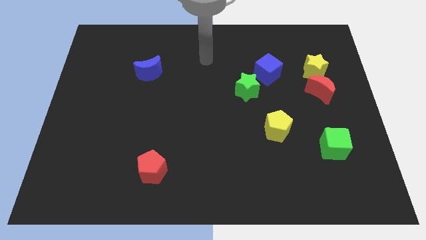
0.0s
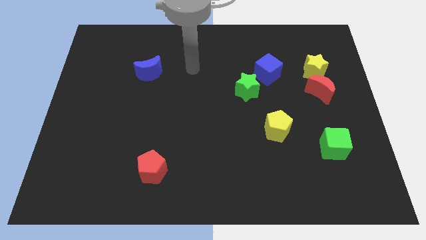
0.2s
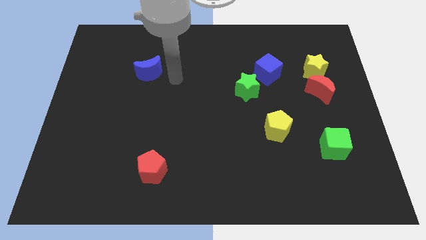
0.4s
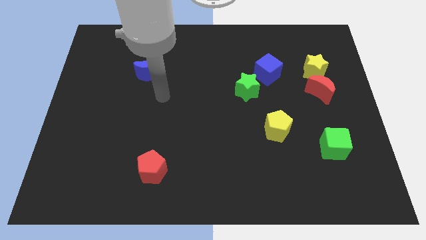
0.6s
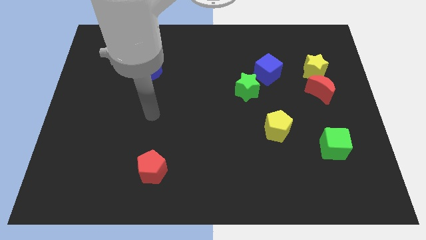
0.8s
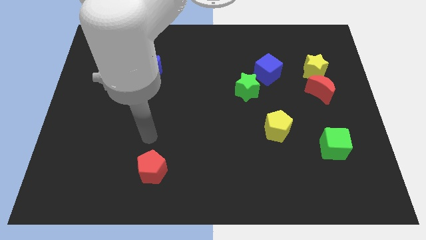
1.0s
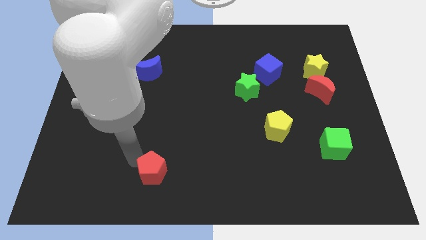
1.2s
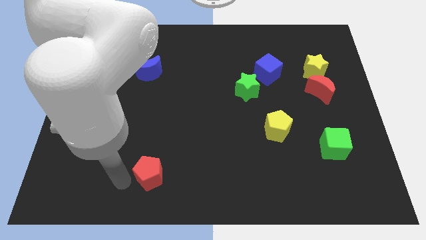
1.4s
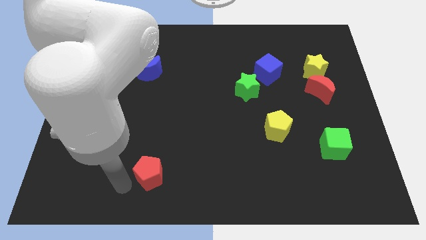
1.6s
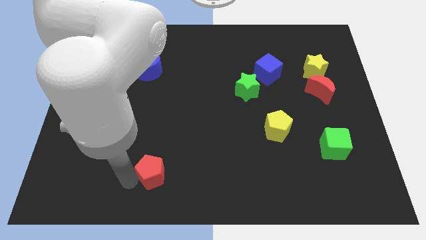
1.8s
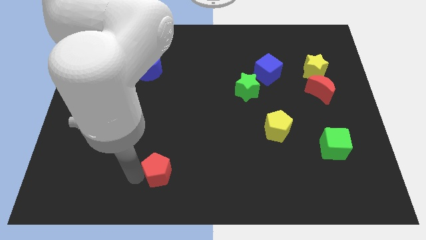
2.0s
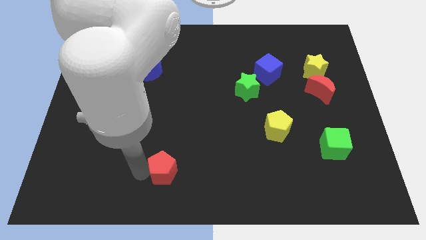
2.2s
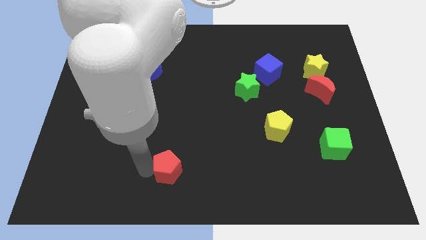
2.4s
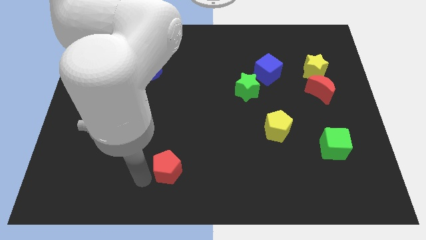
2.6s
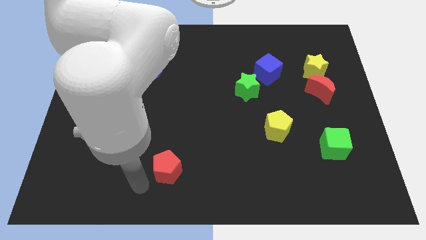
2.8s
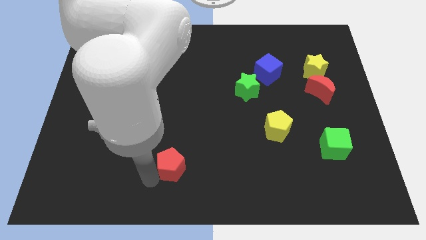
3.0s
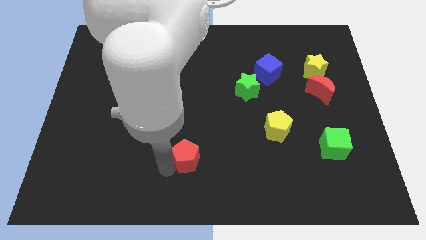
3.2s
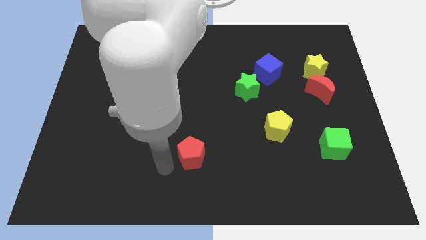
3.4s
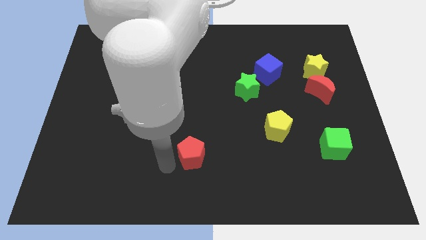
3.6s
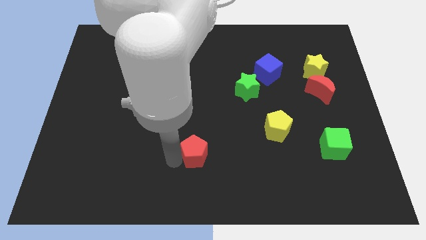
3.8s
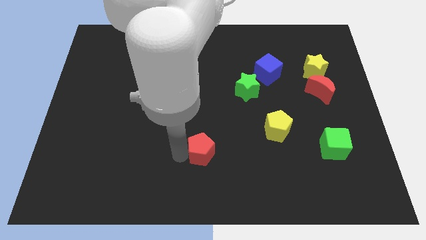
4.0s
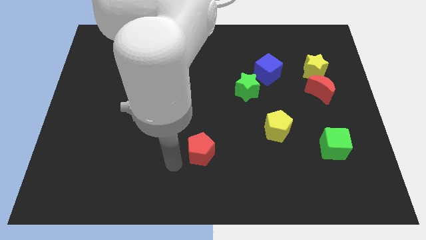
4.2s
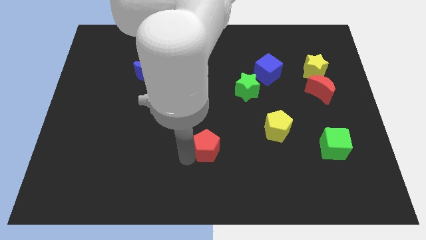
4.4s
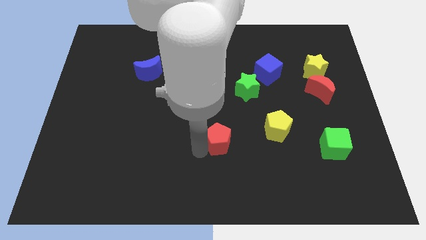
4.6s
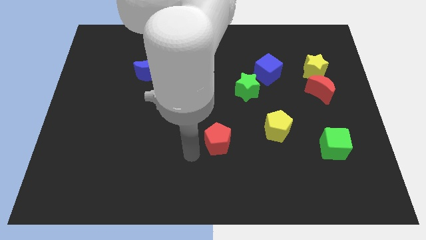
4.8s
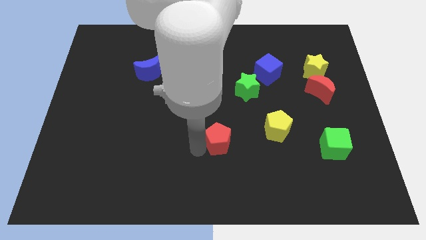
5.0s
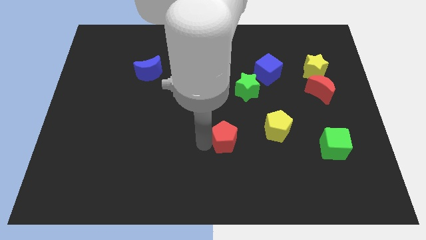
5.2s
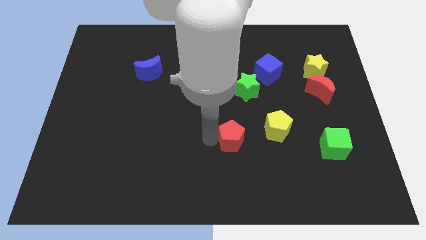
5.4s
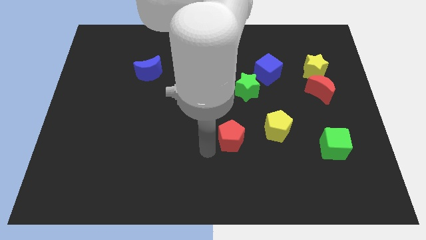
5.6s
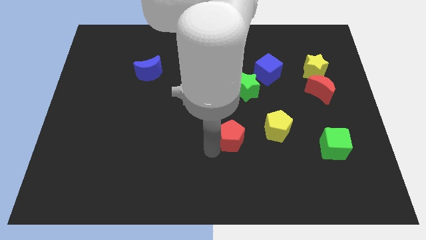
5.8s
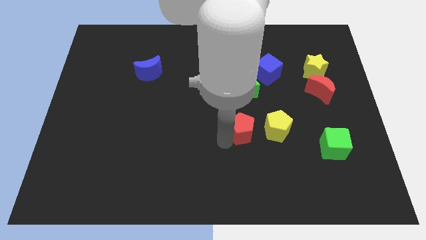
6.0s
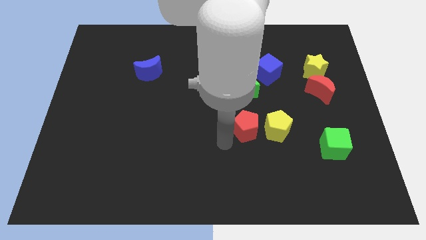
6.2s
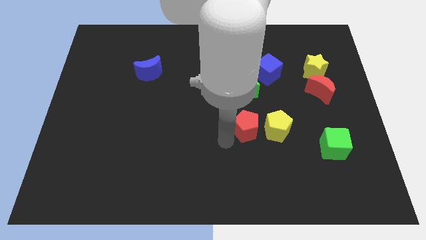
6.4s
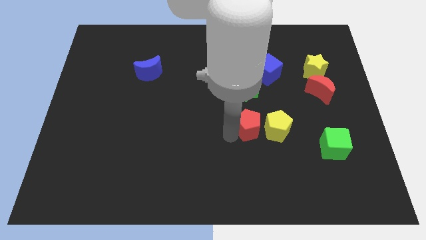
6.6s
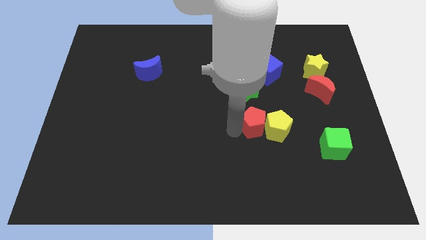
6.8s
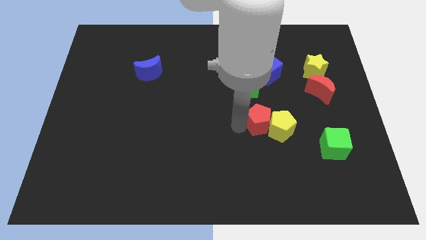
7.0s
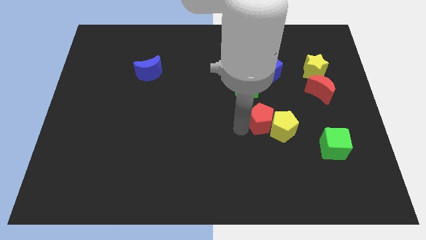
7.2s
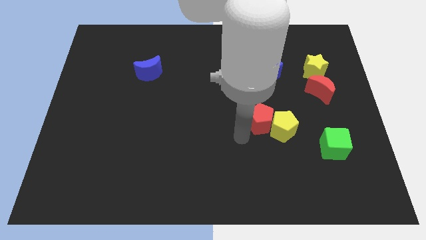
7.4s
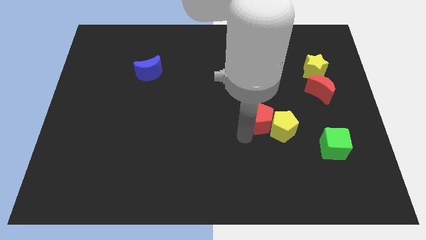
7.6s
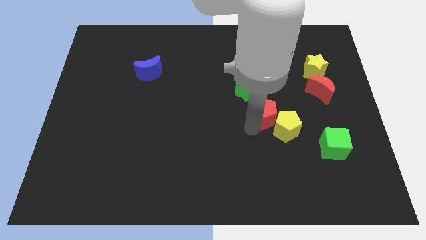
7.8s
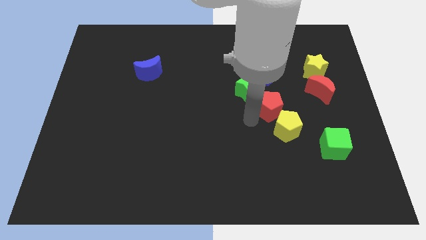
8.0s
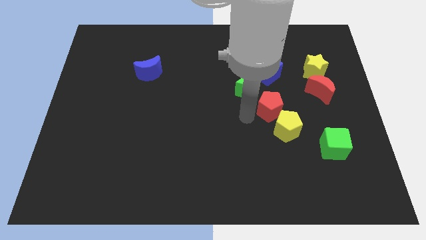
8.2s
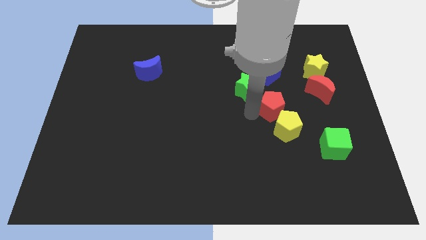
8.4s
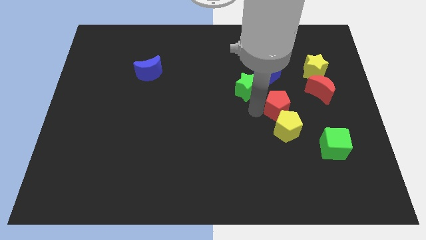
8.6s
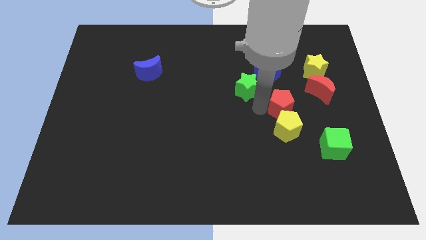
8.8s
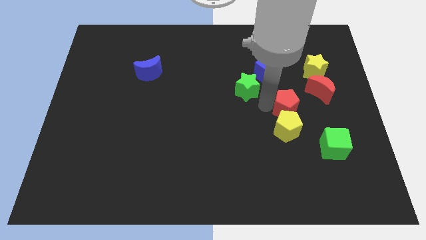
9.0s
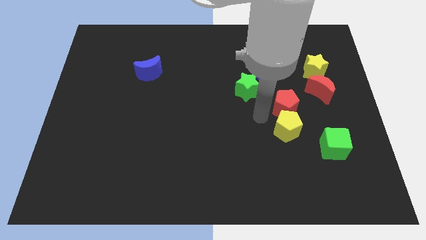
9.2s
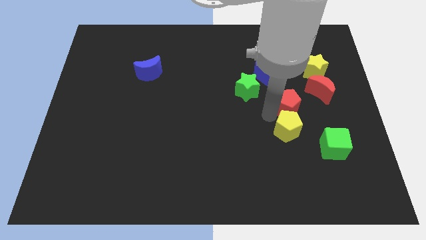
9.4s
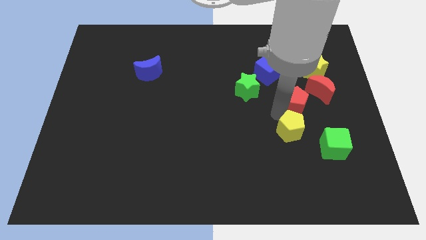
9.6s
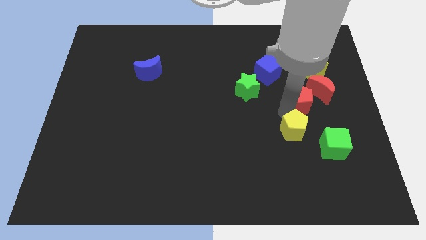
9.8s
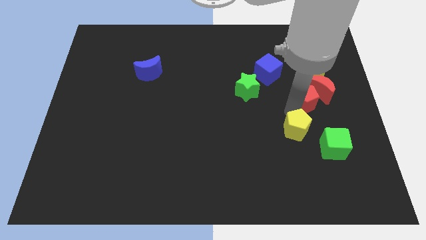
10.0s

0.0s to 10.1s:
push the red pentagon close to the red moon

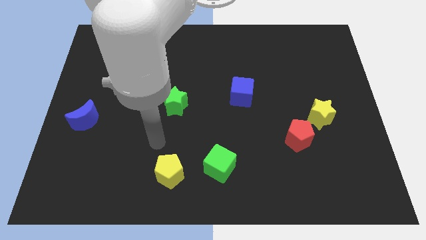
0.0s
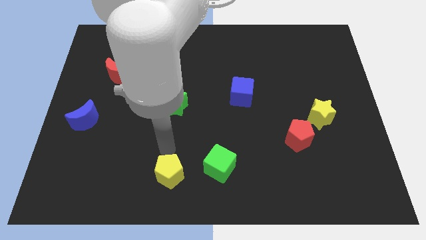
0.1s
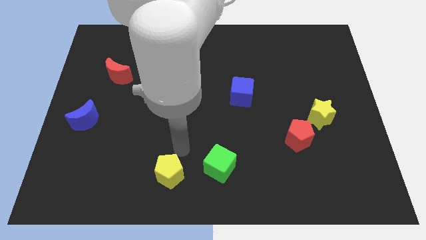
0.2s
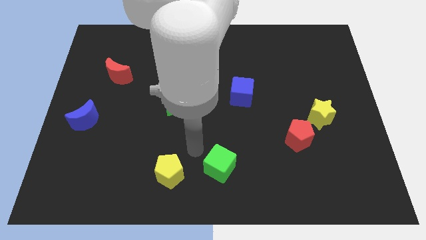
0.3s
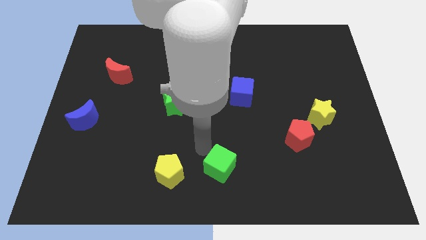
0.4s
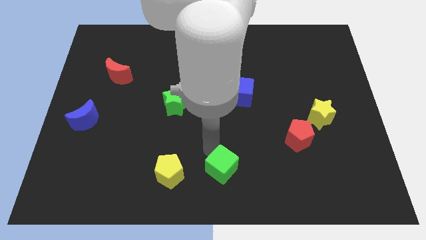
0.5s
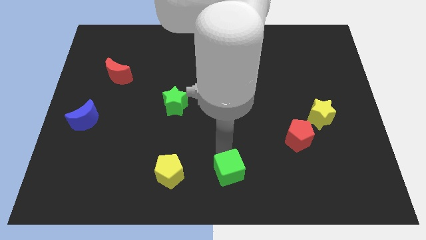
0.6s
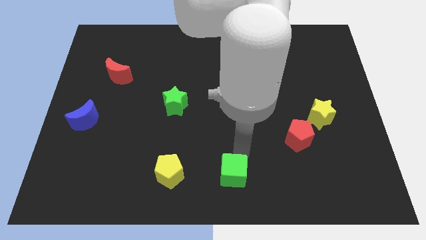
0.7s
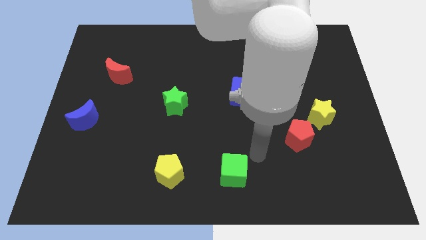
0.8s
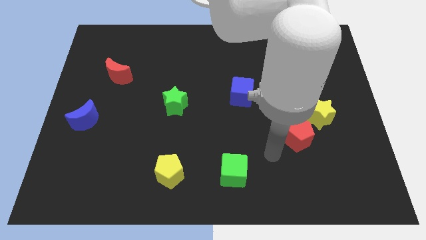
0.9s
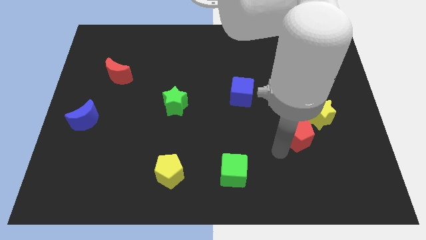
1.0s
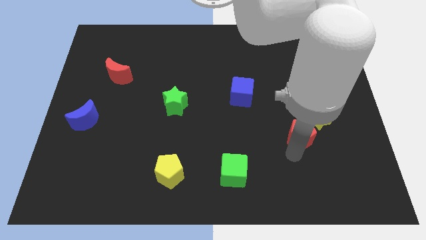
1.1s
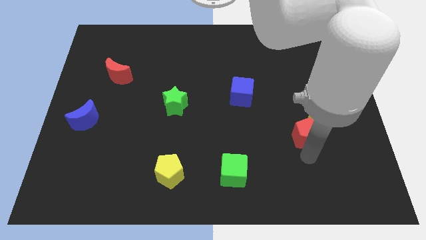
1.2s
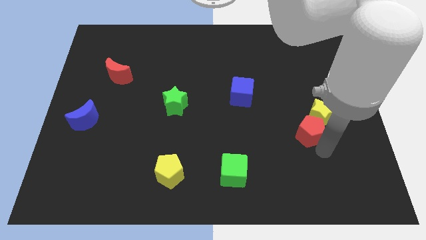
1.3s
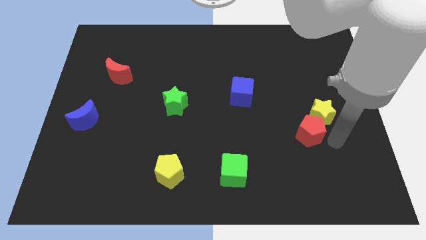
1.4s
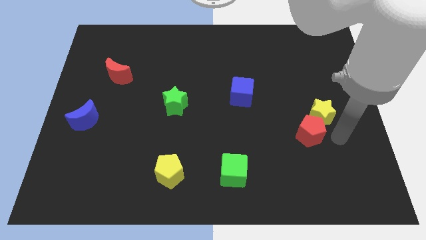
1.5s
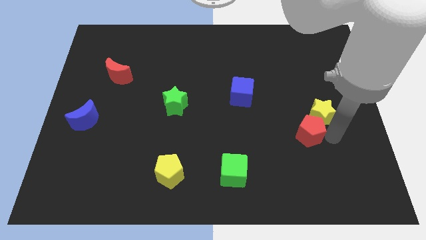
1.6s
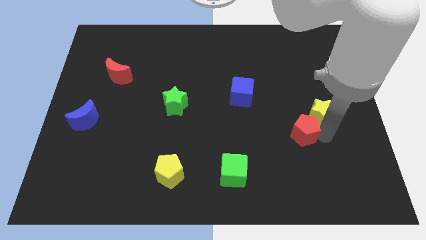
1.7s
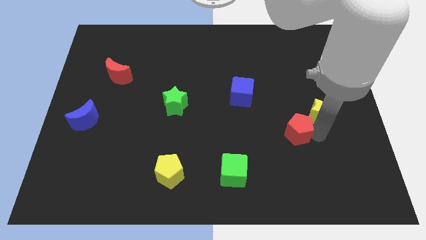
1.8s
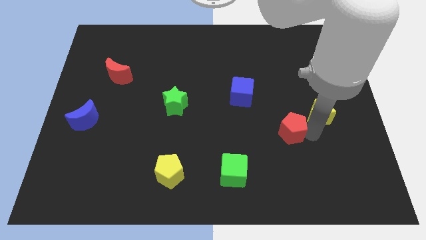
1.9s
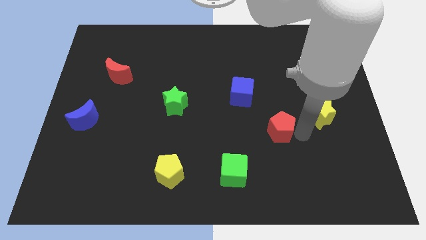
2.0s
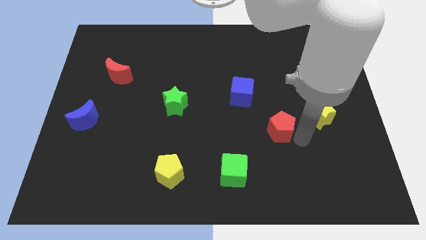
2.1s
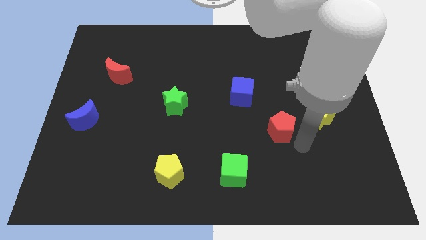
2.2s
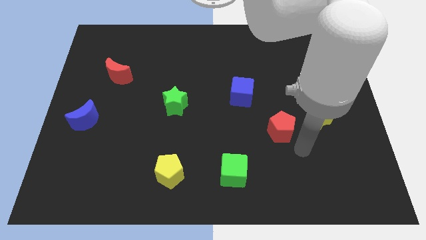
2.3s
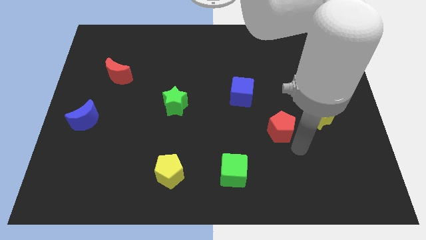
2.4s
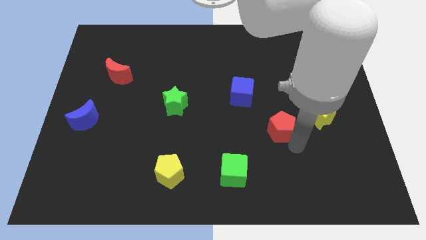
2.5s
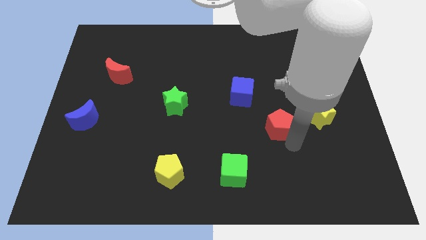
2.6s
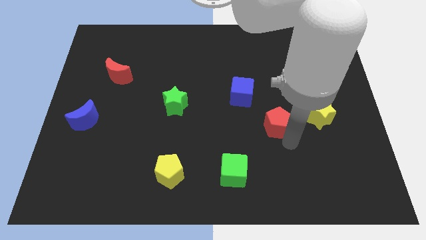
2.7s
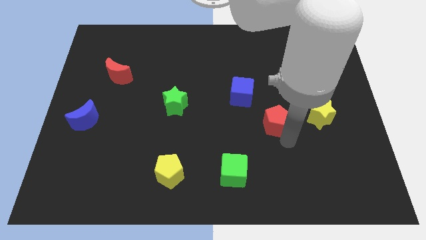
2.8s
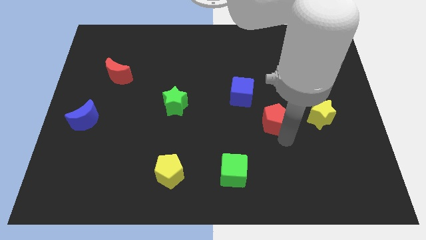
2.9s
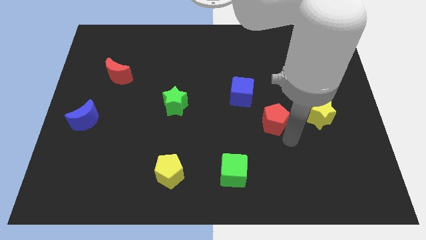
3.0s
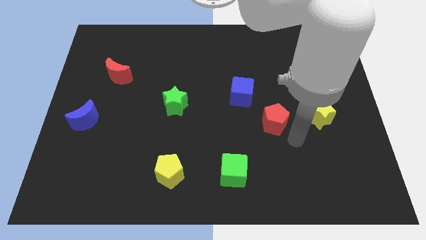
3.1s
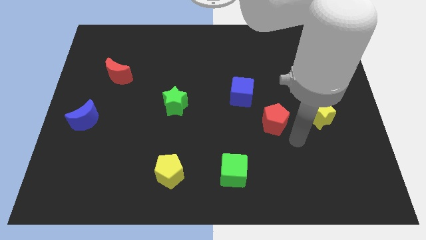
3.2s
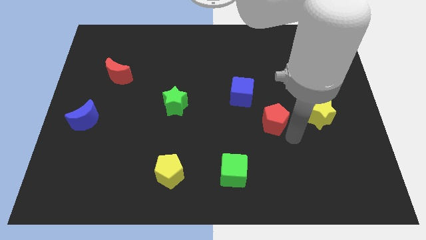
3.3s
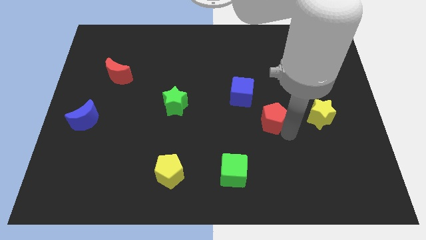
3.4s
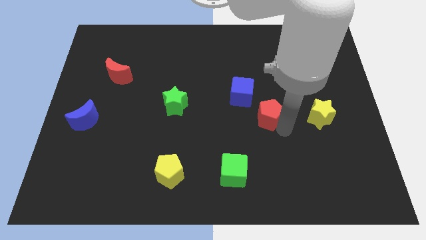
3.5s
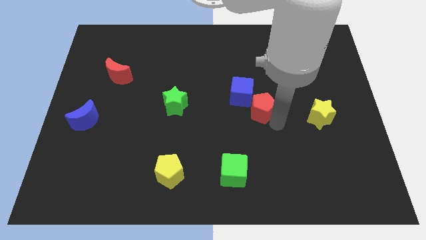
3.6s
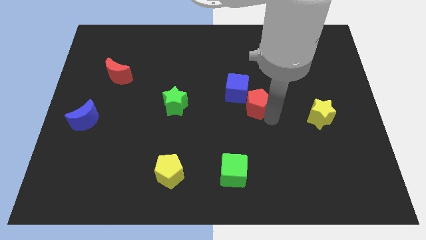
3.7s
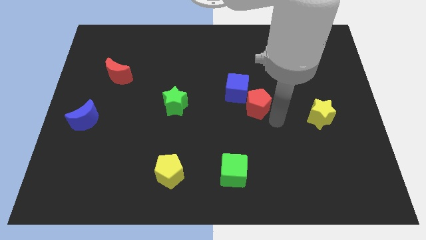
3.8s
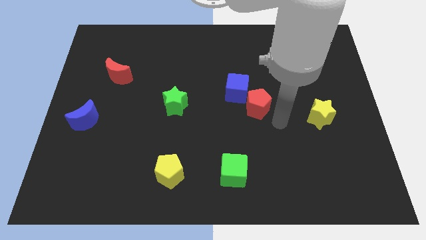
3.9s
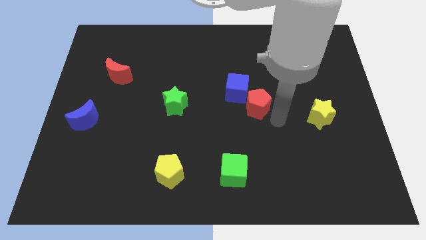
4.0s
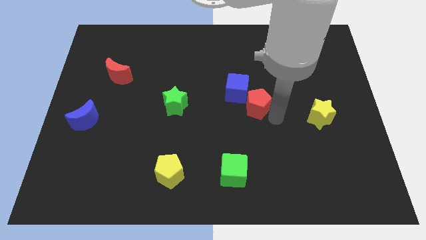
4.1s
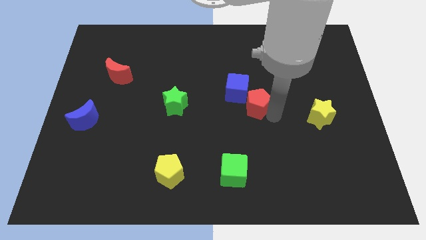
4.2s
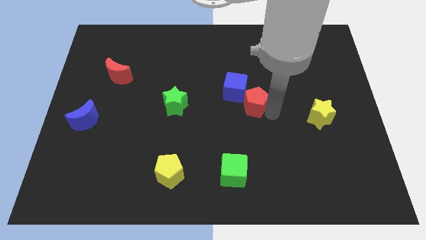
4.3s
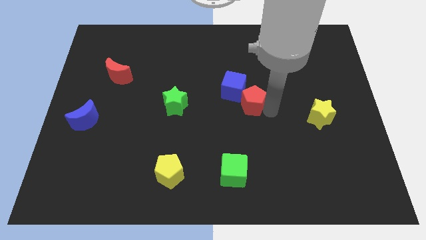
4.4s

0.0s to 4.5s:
slide the red pentagon towards the blue cube
